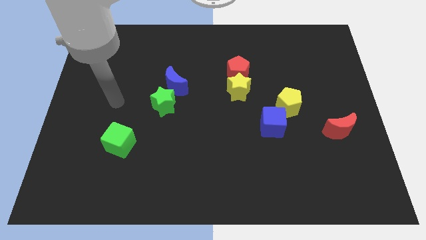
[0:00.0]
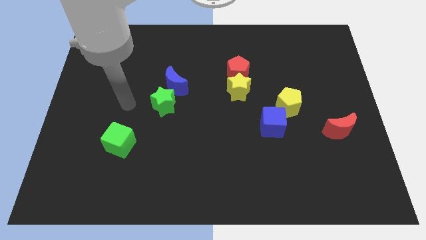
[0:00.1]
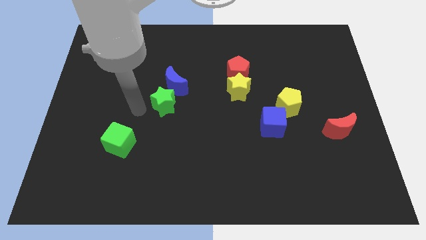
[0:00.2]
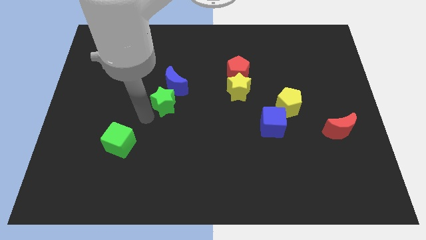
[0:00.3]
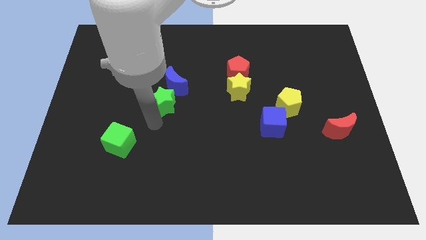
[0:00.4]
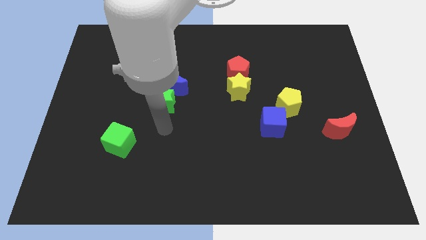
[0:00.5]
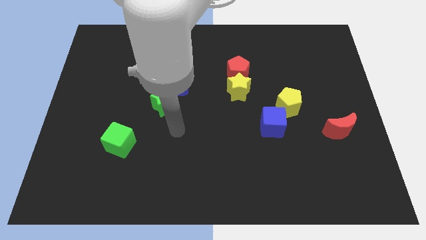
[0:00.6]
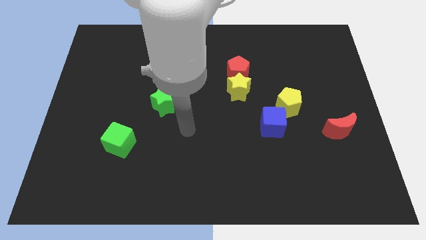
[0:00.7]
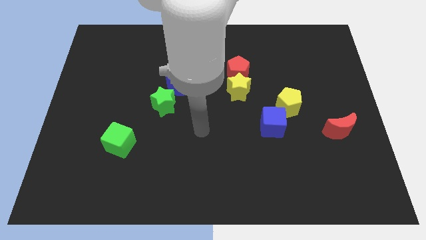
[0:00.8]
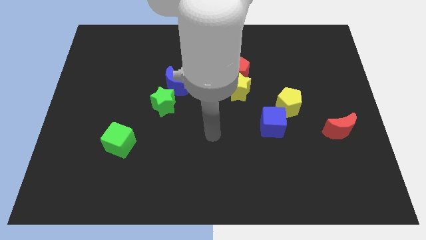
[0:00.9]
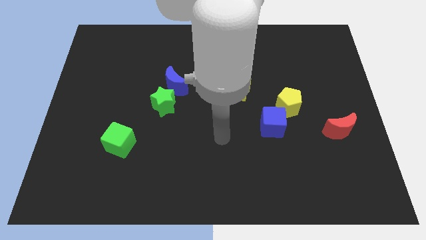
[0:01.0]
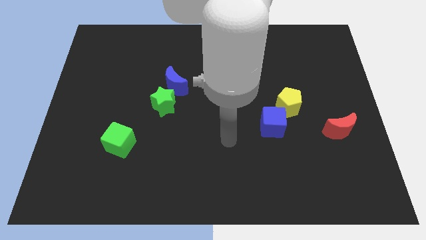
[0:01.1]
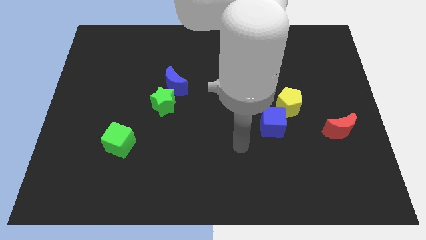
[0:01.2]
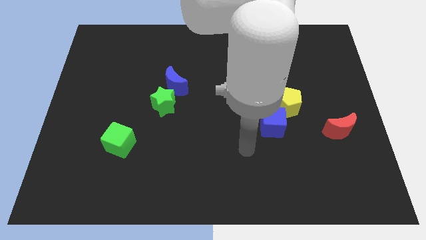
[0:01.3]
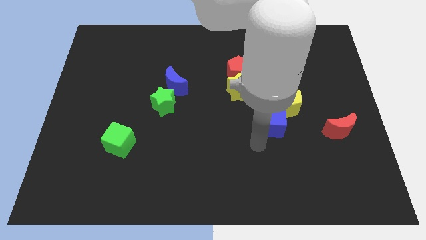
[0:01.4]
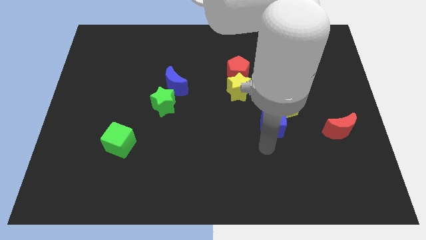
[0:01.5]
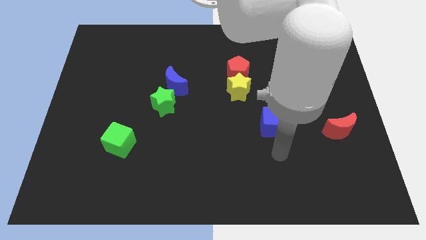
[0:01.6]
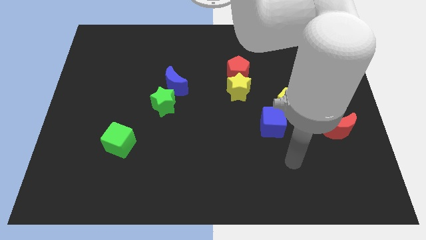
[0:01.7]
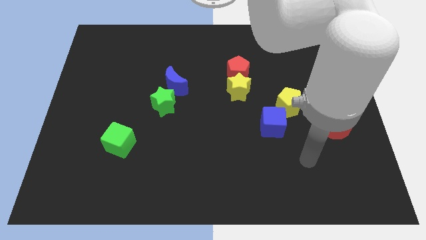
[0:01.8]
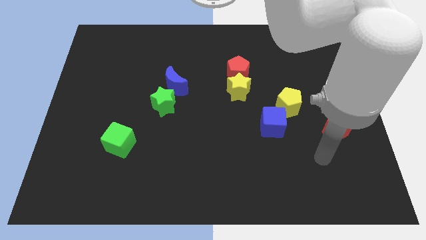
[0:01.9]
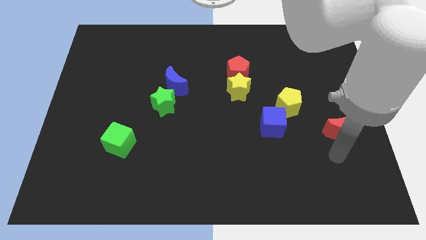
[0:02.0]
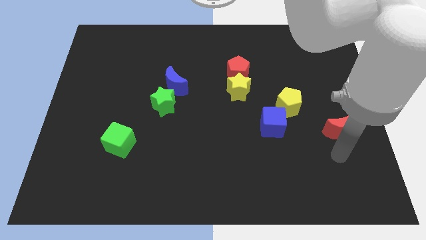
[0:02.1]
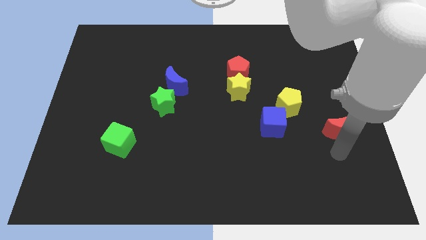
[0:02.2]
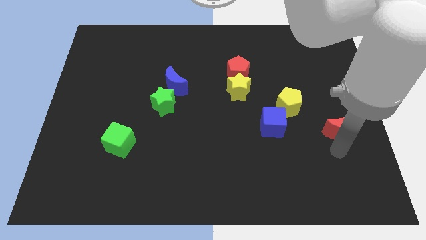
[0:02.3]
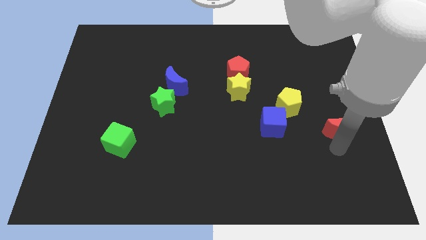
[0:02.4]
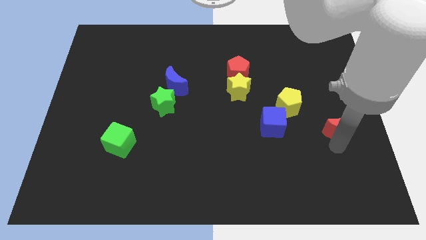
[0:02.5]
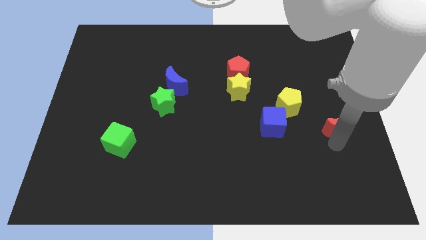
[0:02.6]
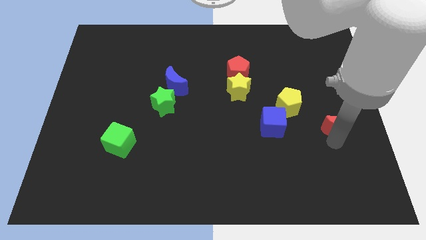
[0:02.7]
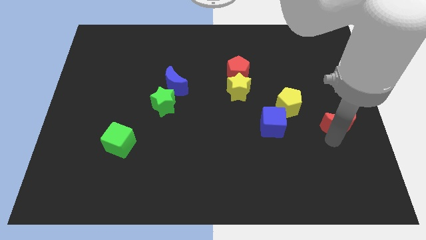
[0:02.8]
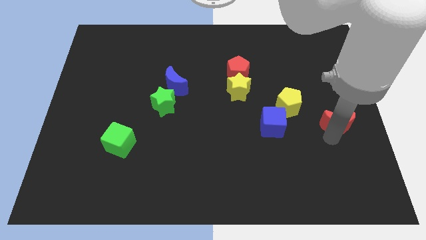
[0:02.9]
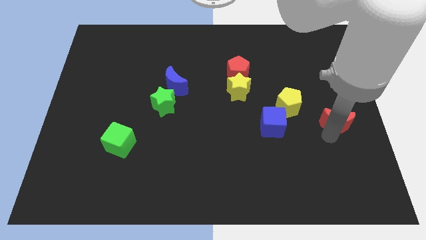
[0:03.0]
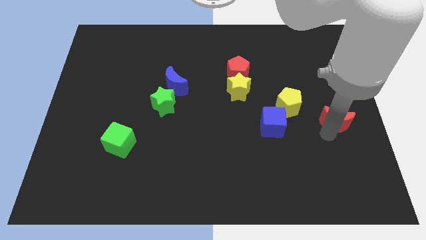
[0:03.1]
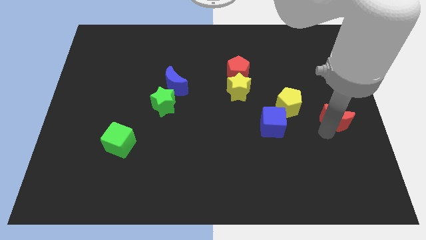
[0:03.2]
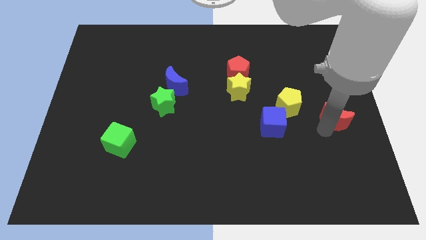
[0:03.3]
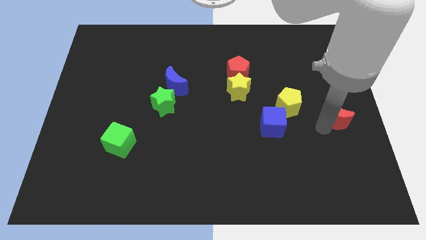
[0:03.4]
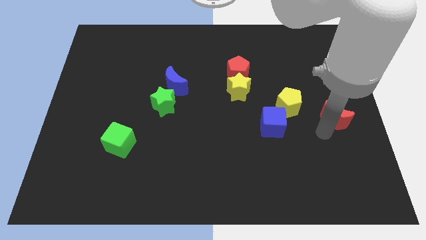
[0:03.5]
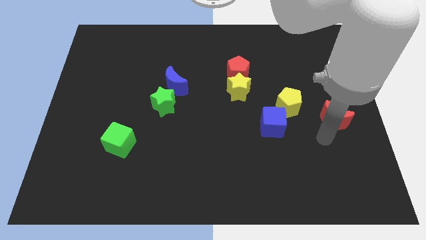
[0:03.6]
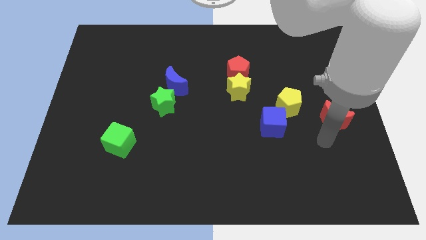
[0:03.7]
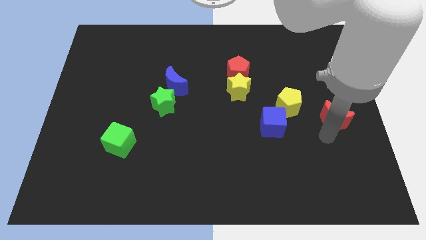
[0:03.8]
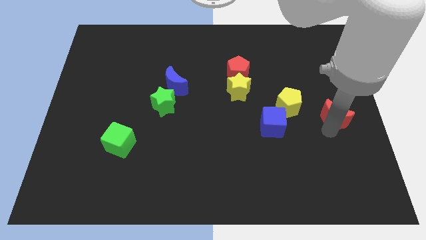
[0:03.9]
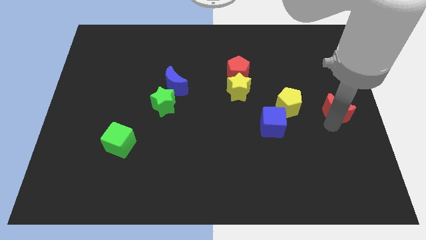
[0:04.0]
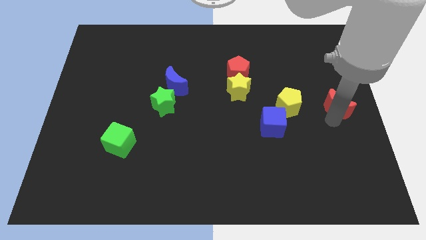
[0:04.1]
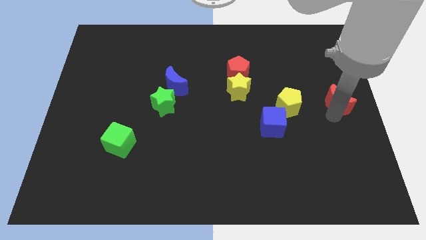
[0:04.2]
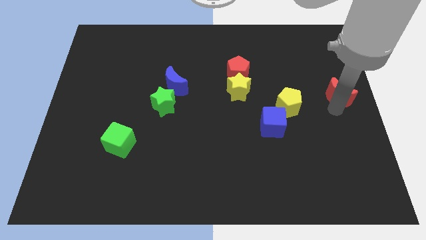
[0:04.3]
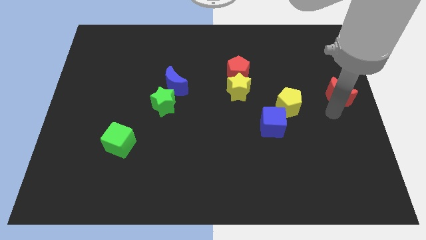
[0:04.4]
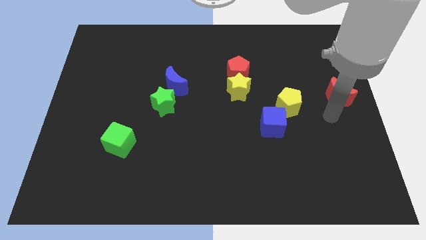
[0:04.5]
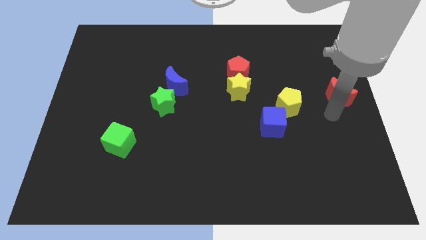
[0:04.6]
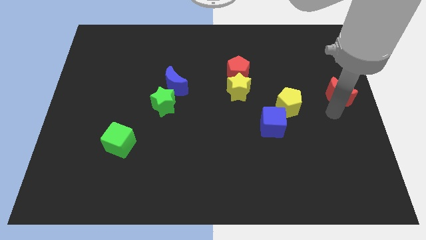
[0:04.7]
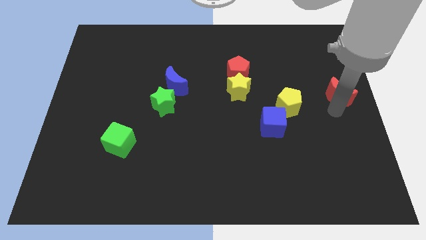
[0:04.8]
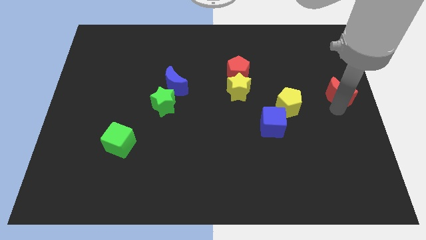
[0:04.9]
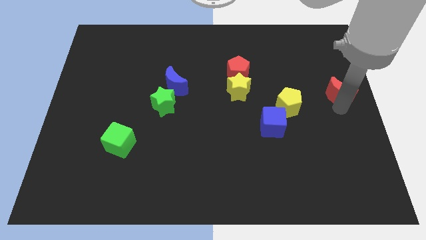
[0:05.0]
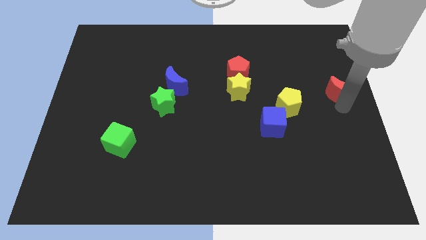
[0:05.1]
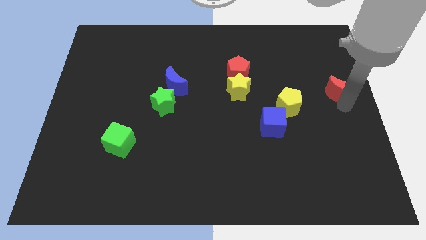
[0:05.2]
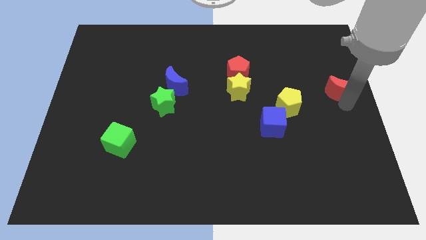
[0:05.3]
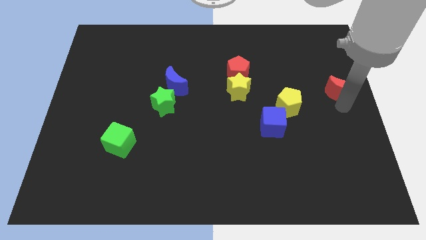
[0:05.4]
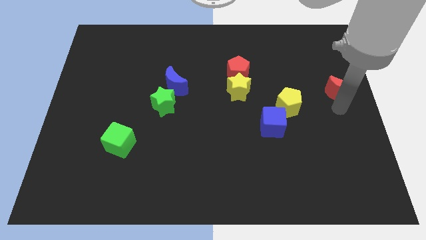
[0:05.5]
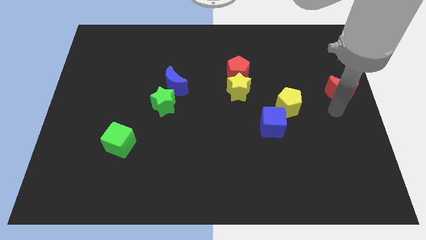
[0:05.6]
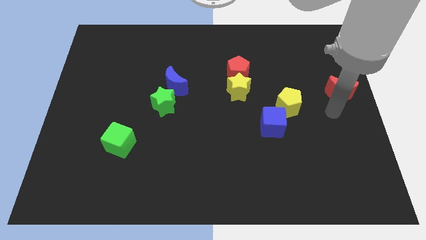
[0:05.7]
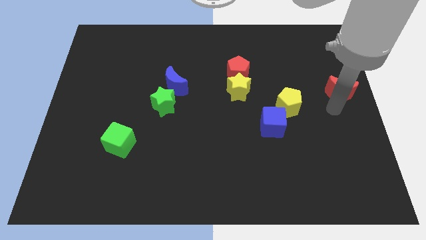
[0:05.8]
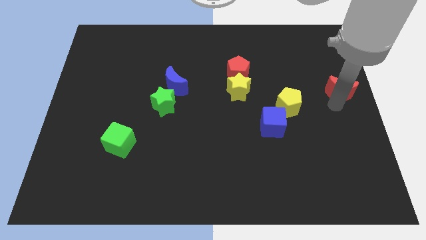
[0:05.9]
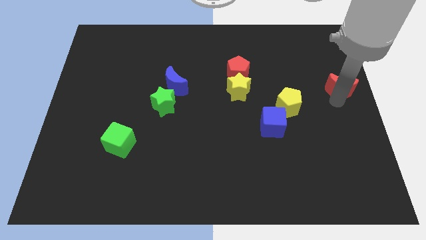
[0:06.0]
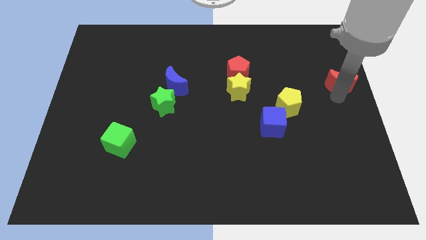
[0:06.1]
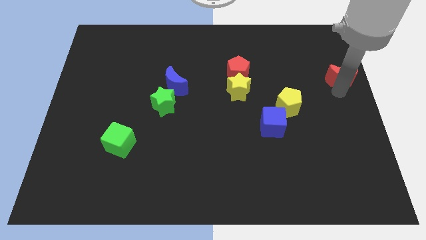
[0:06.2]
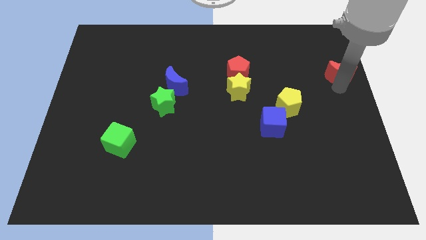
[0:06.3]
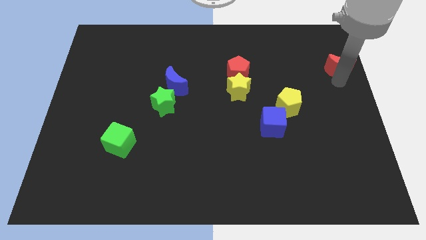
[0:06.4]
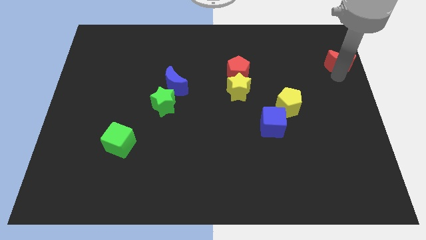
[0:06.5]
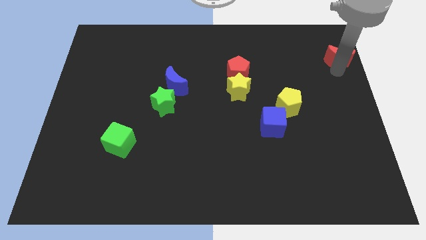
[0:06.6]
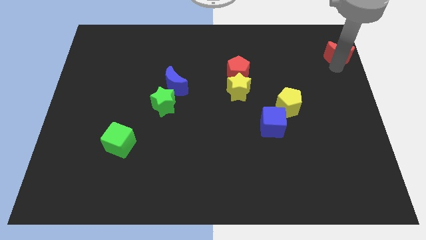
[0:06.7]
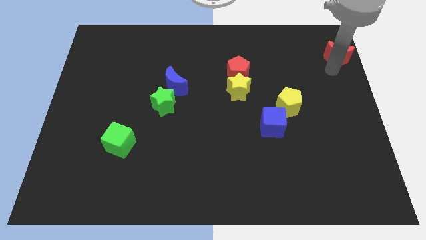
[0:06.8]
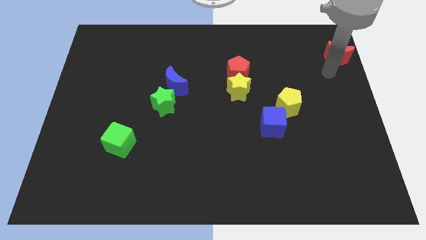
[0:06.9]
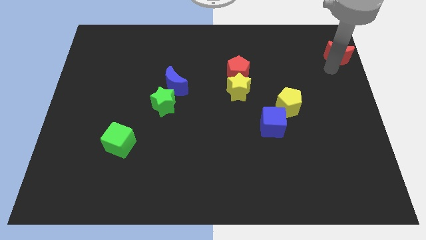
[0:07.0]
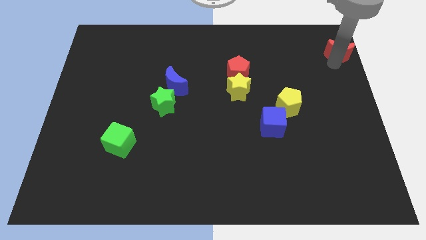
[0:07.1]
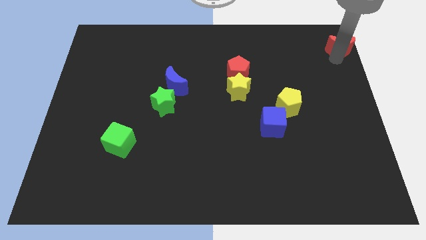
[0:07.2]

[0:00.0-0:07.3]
put the red moon to the upper right corner
